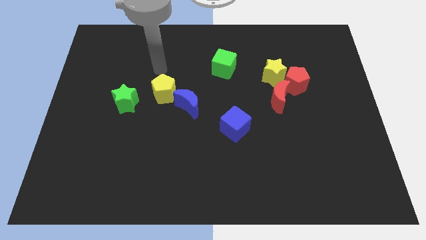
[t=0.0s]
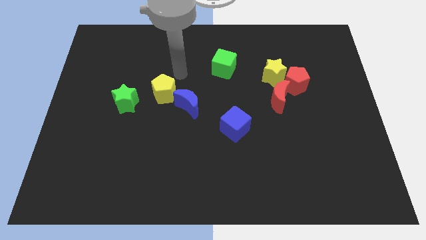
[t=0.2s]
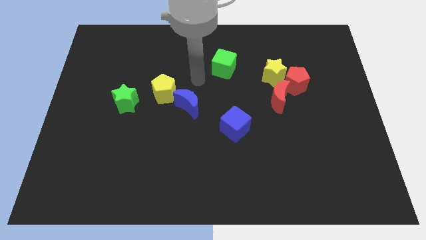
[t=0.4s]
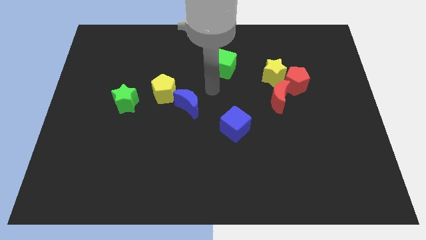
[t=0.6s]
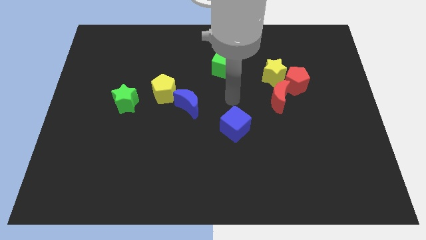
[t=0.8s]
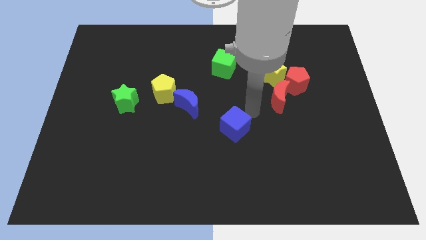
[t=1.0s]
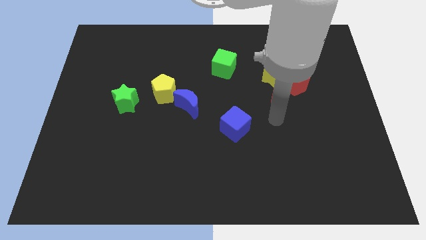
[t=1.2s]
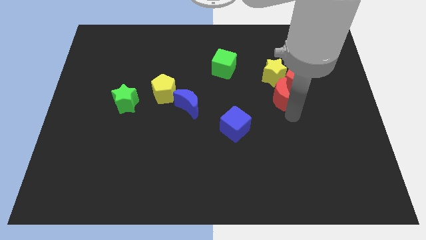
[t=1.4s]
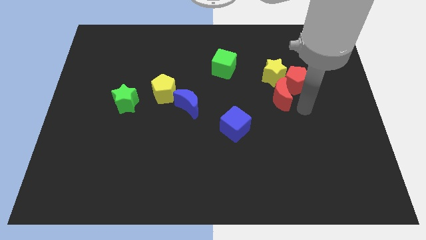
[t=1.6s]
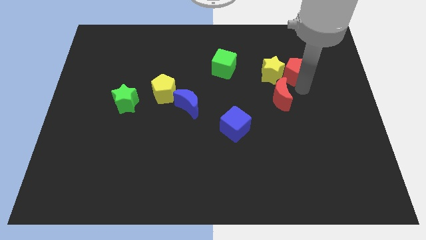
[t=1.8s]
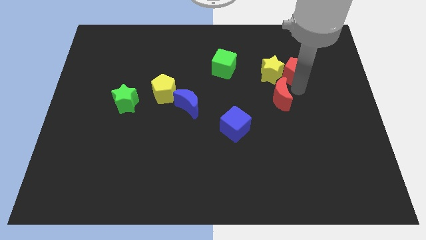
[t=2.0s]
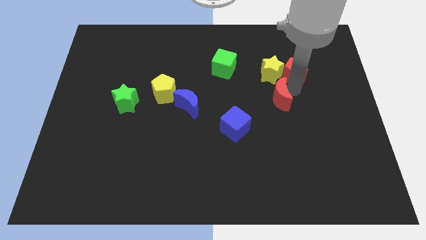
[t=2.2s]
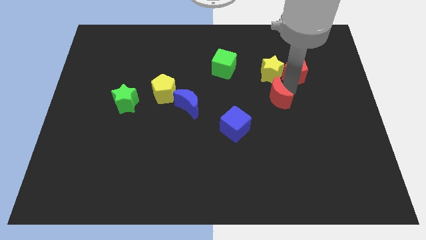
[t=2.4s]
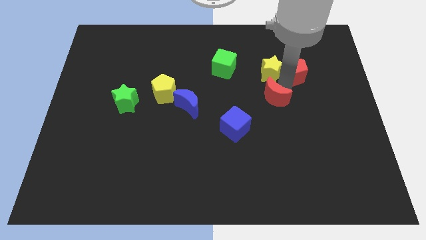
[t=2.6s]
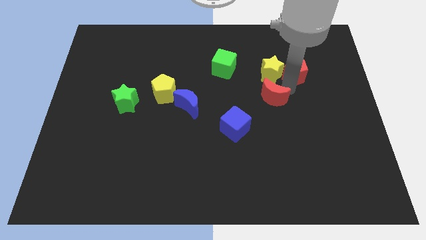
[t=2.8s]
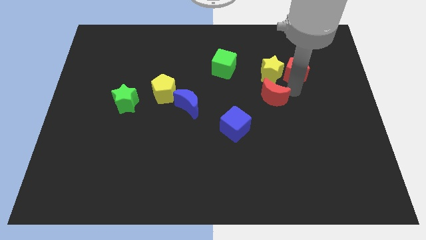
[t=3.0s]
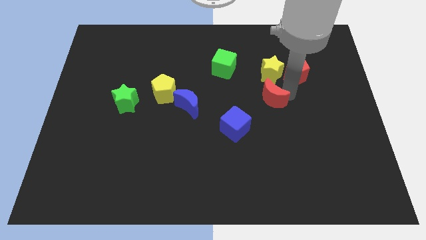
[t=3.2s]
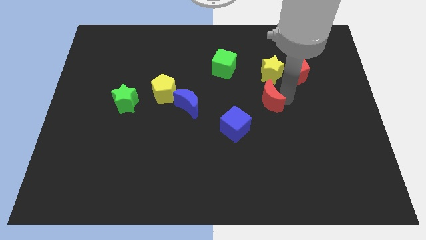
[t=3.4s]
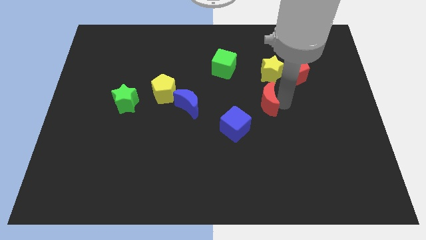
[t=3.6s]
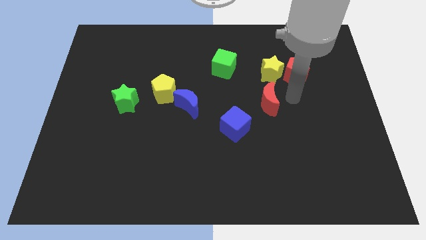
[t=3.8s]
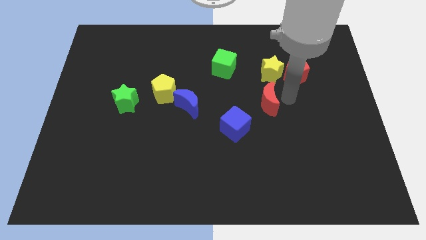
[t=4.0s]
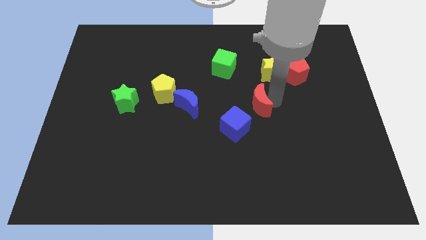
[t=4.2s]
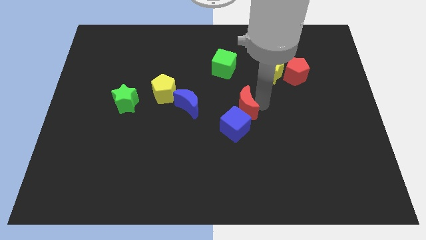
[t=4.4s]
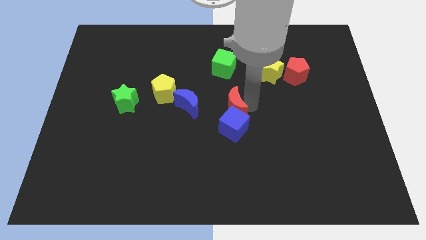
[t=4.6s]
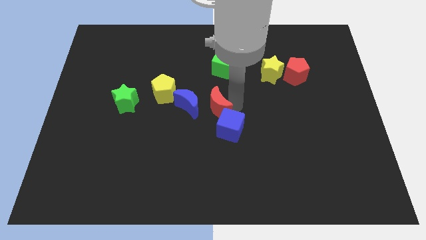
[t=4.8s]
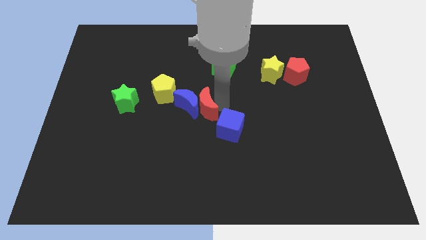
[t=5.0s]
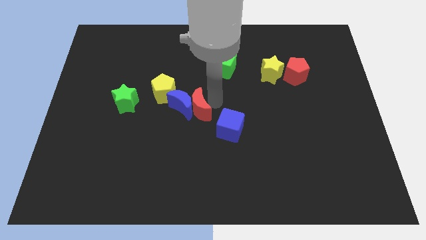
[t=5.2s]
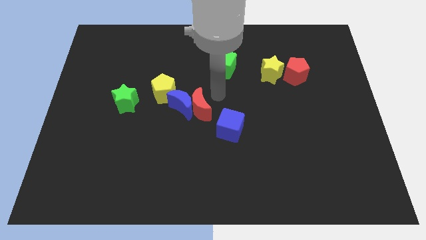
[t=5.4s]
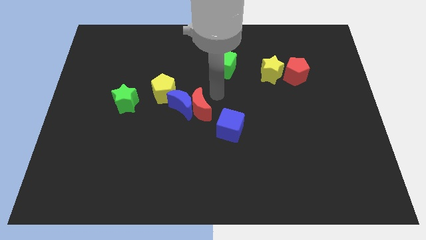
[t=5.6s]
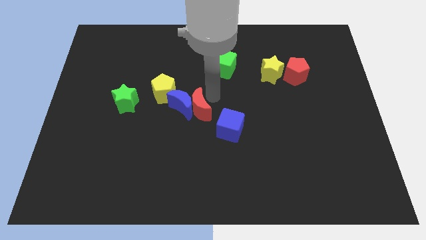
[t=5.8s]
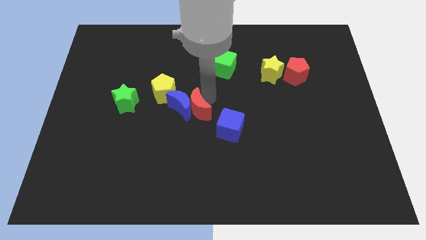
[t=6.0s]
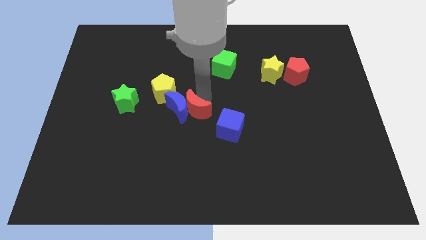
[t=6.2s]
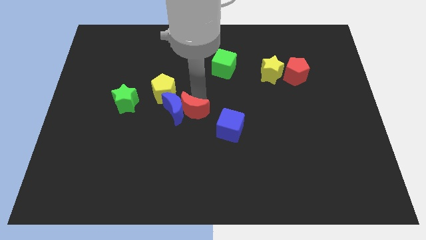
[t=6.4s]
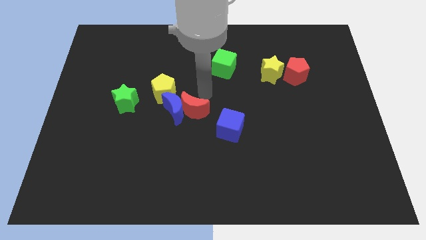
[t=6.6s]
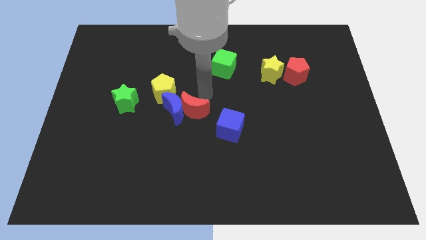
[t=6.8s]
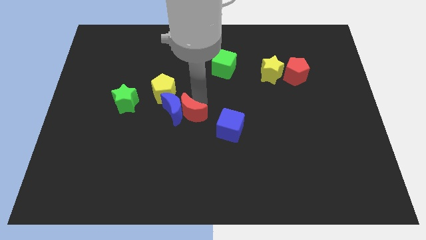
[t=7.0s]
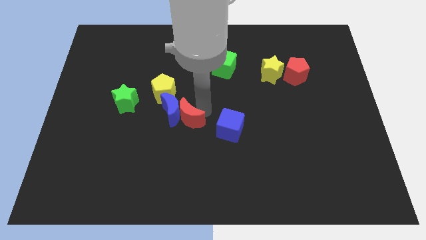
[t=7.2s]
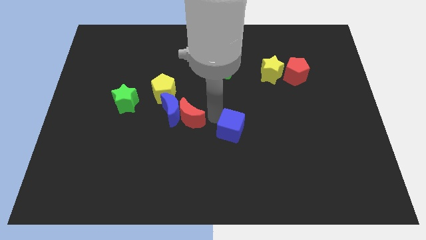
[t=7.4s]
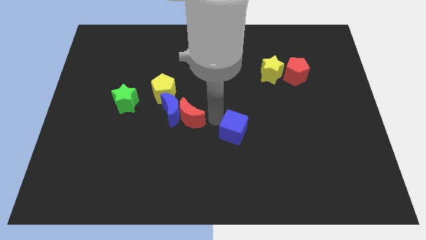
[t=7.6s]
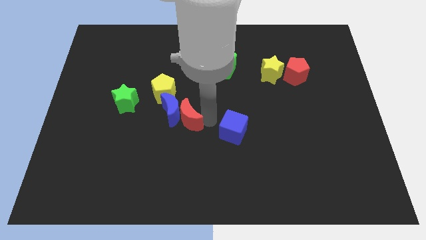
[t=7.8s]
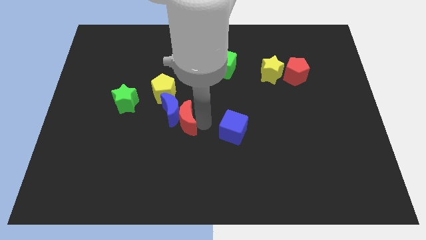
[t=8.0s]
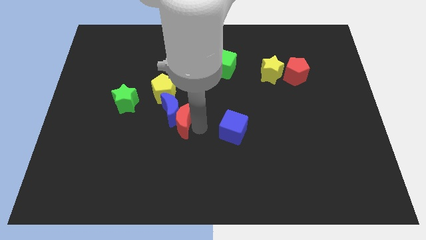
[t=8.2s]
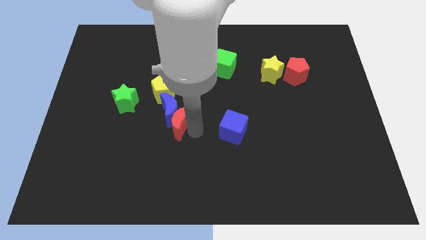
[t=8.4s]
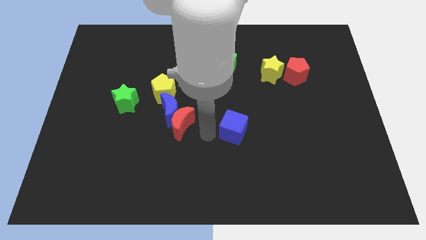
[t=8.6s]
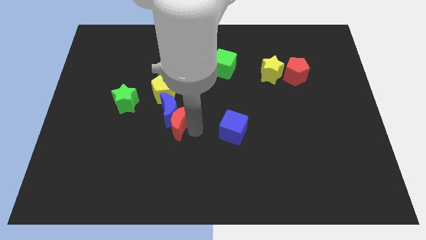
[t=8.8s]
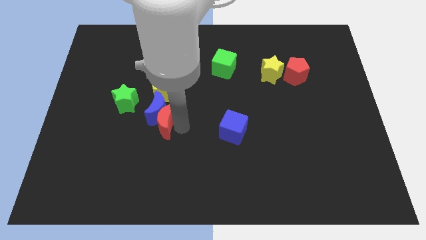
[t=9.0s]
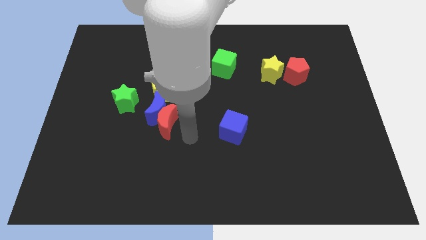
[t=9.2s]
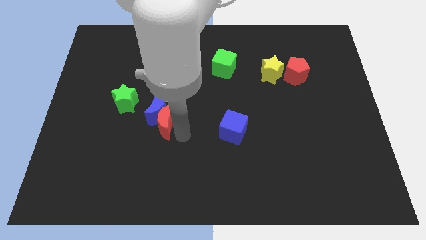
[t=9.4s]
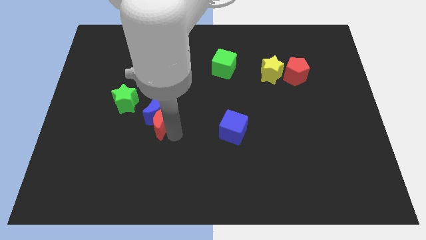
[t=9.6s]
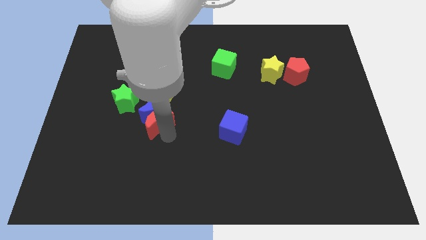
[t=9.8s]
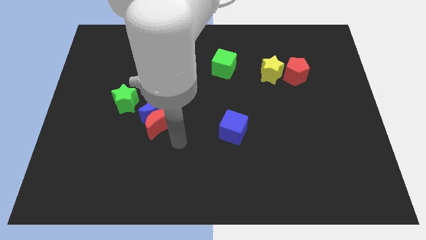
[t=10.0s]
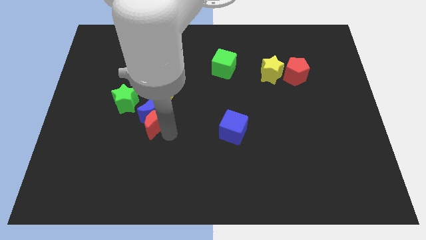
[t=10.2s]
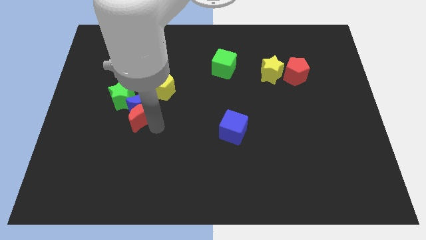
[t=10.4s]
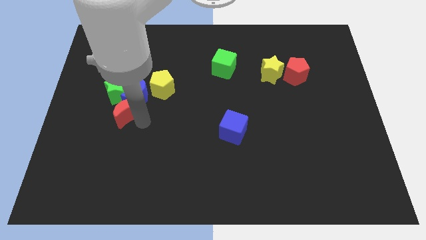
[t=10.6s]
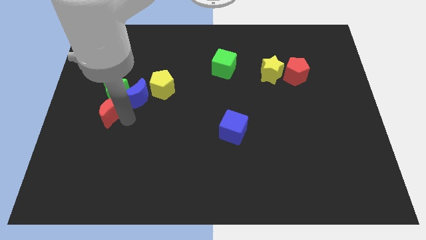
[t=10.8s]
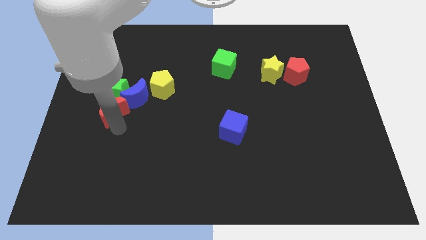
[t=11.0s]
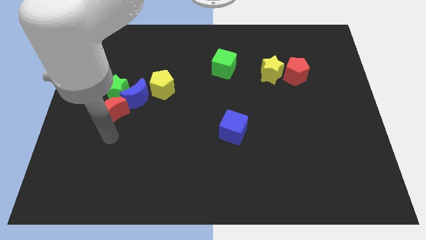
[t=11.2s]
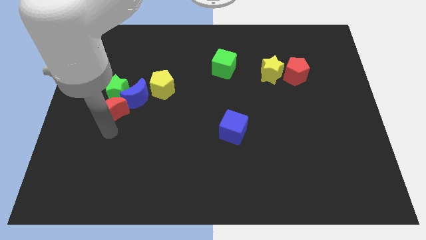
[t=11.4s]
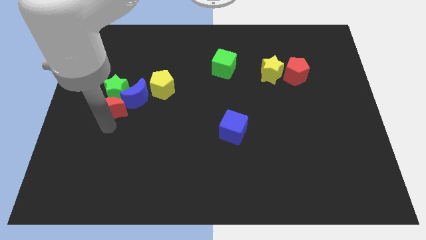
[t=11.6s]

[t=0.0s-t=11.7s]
put the red moon towards the green star

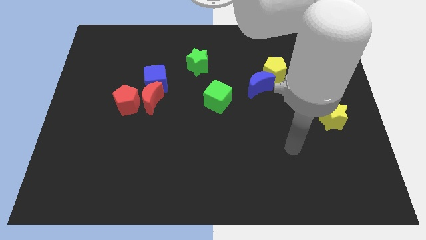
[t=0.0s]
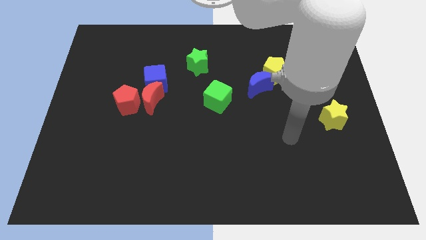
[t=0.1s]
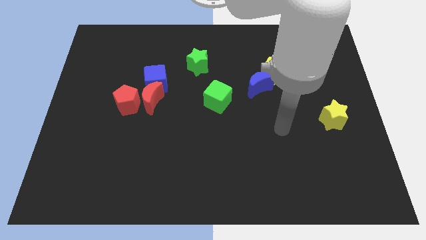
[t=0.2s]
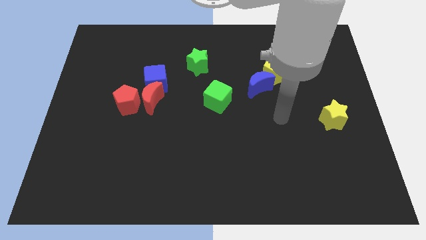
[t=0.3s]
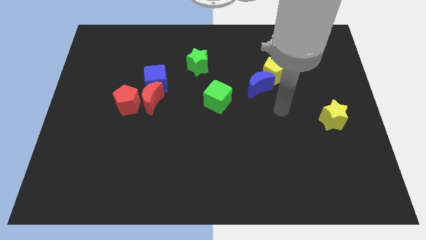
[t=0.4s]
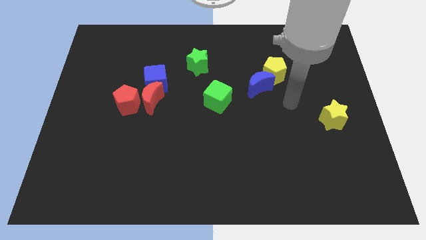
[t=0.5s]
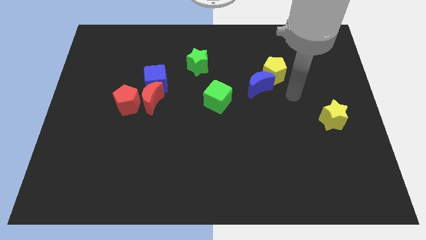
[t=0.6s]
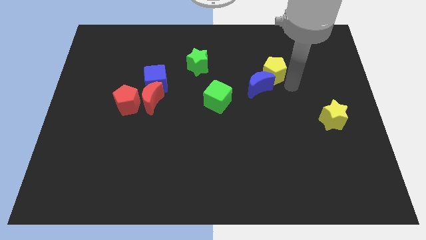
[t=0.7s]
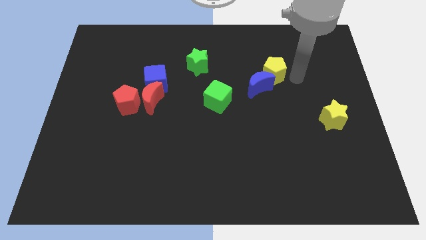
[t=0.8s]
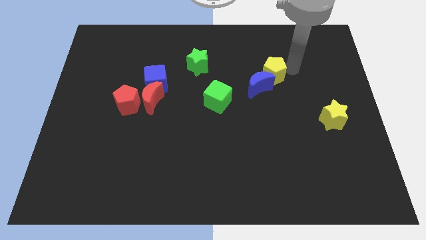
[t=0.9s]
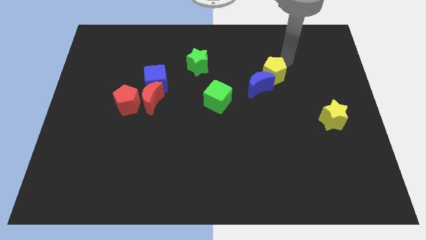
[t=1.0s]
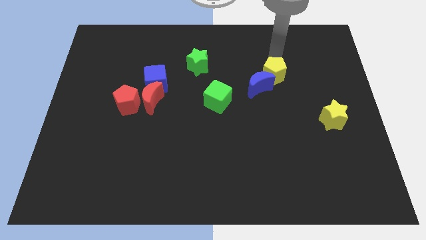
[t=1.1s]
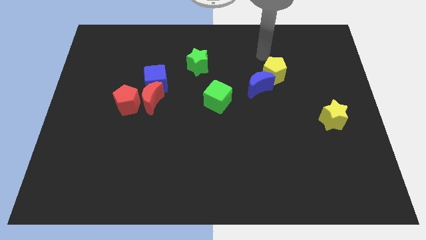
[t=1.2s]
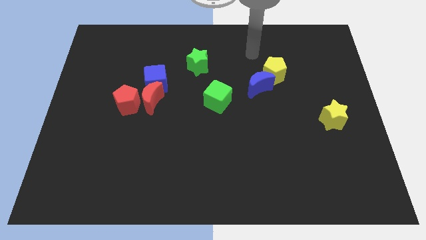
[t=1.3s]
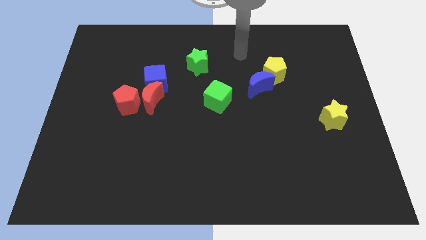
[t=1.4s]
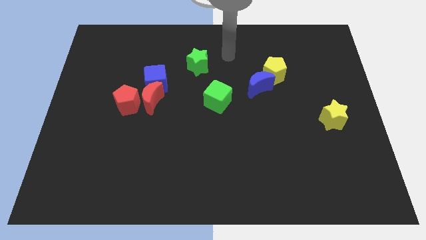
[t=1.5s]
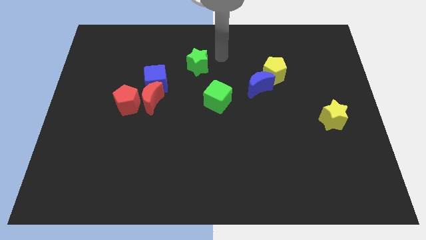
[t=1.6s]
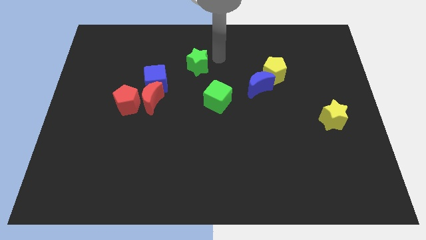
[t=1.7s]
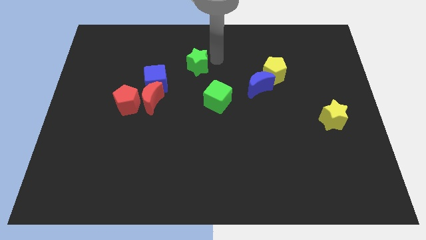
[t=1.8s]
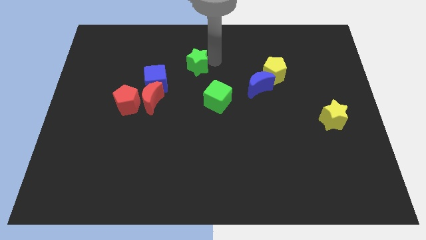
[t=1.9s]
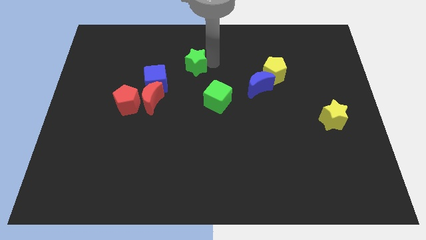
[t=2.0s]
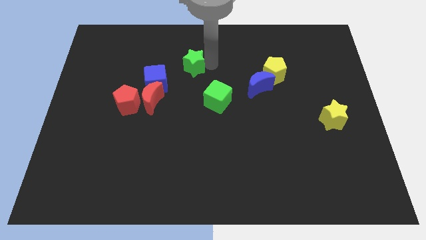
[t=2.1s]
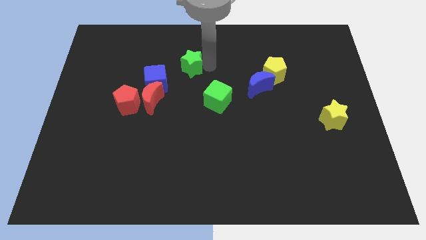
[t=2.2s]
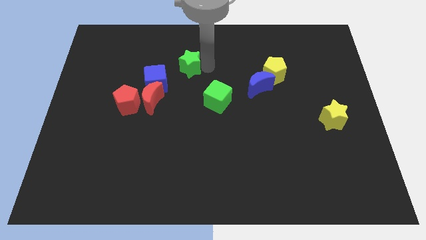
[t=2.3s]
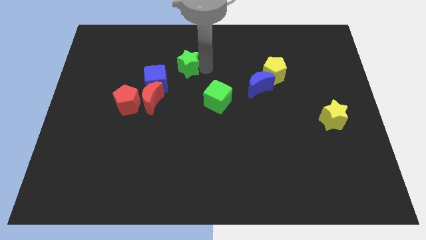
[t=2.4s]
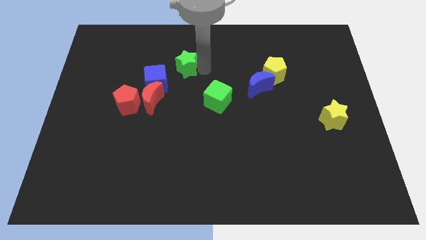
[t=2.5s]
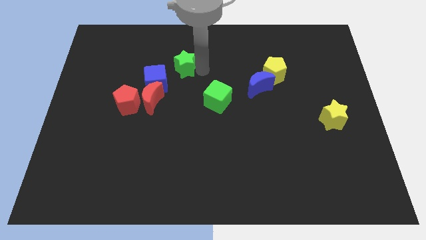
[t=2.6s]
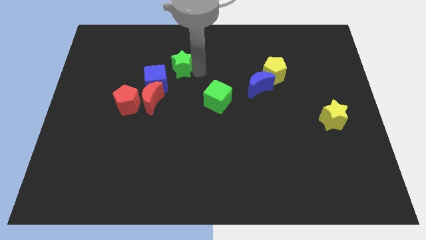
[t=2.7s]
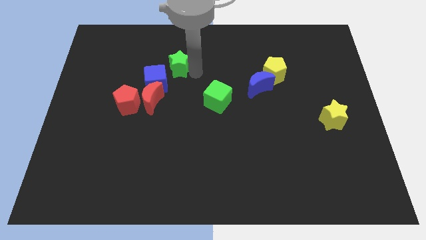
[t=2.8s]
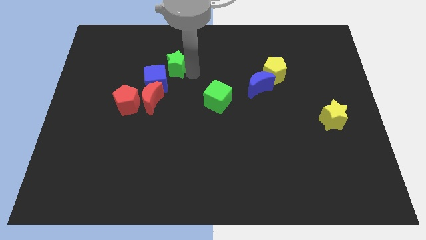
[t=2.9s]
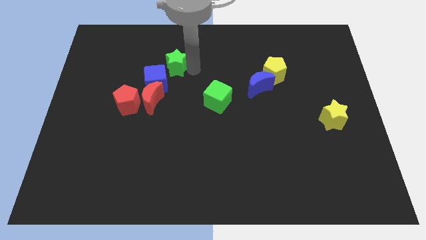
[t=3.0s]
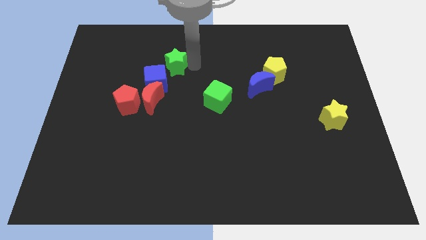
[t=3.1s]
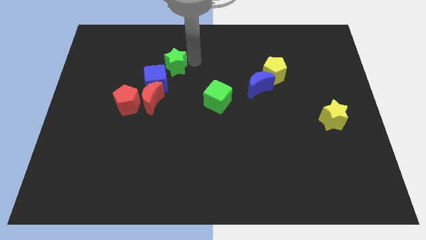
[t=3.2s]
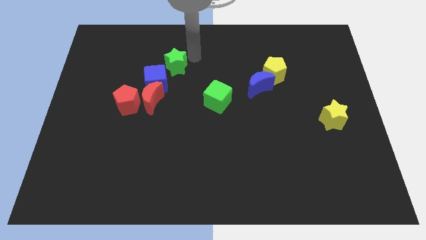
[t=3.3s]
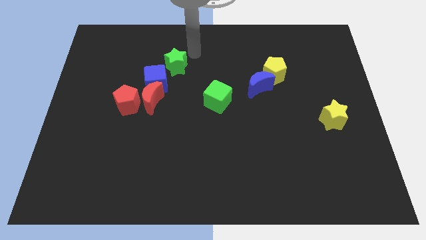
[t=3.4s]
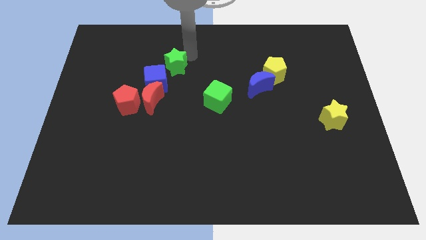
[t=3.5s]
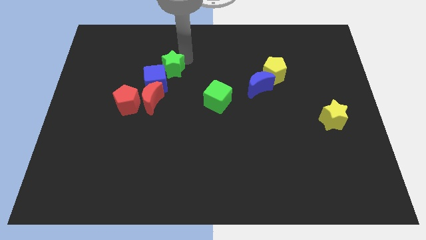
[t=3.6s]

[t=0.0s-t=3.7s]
put the green star towards the blue cube
